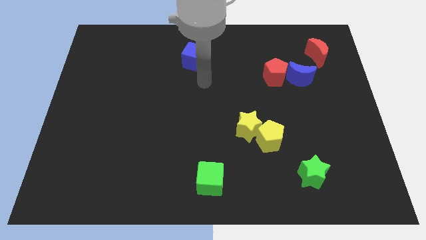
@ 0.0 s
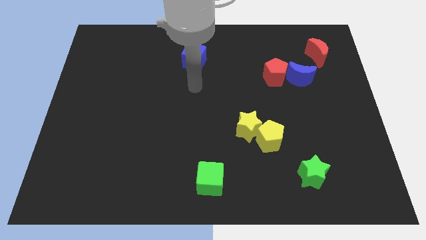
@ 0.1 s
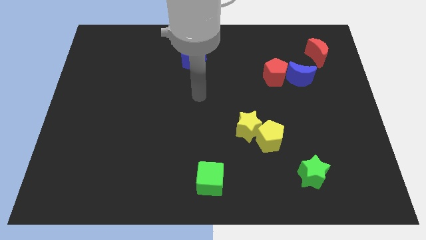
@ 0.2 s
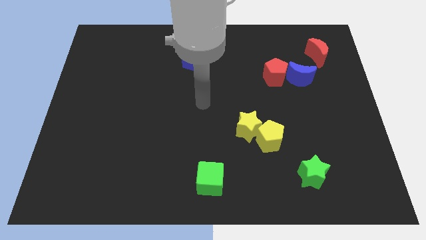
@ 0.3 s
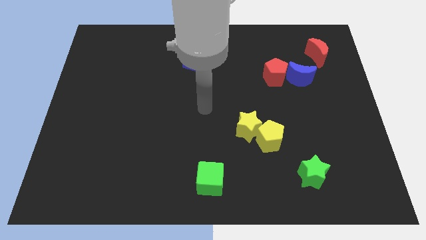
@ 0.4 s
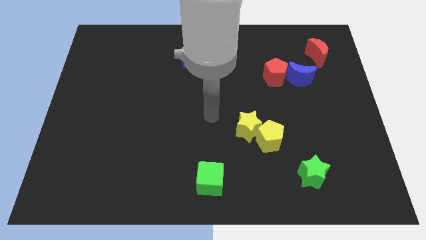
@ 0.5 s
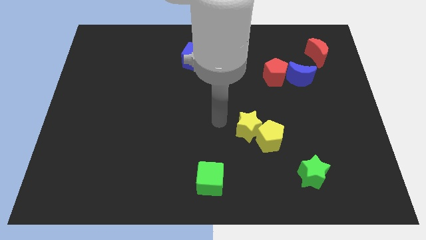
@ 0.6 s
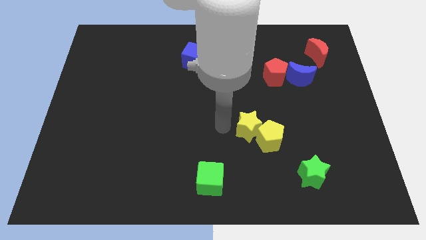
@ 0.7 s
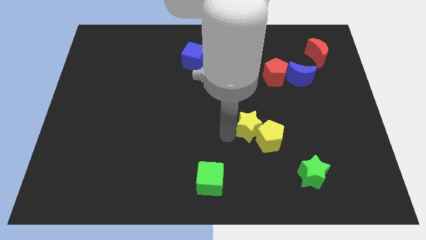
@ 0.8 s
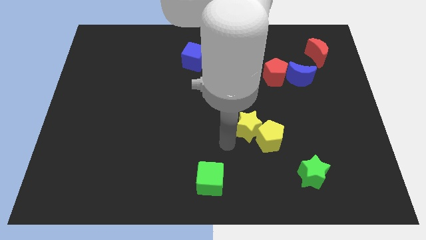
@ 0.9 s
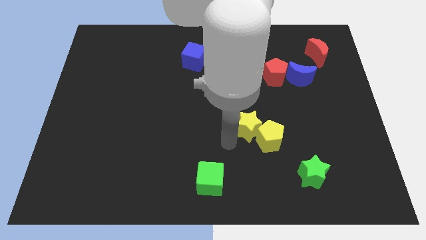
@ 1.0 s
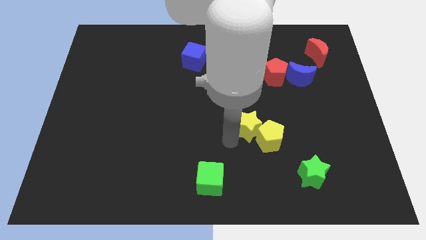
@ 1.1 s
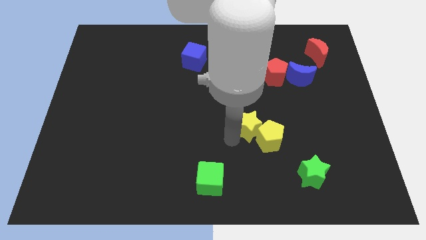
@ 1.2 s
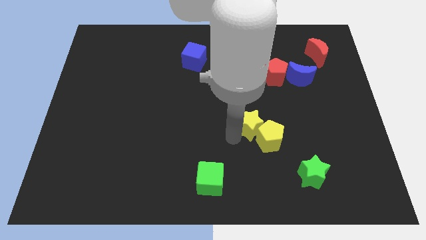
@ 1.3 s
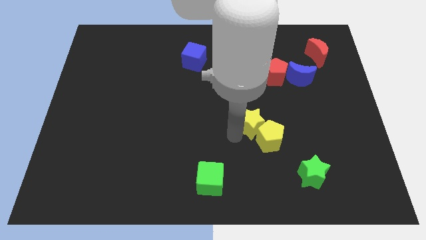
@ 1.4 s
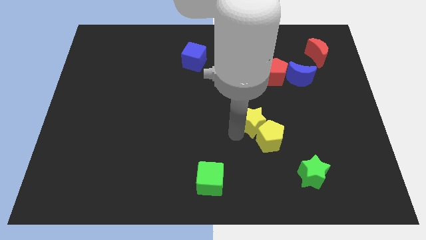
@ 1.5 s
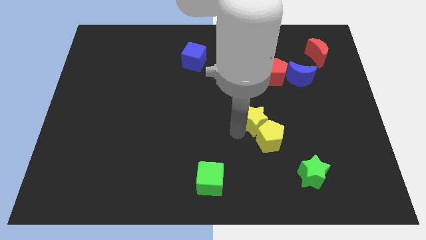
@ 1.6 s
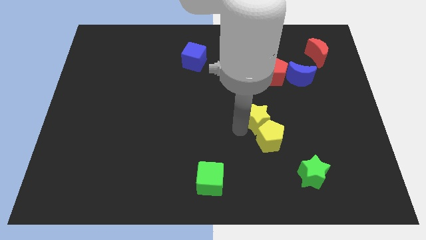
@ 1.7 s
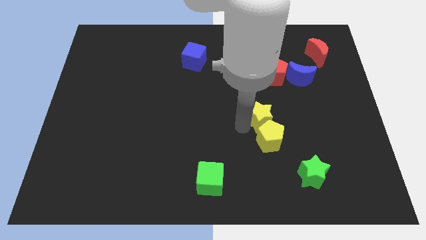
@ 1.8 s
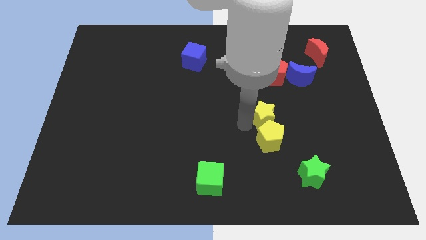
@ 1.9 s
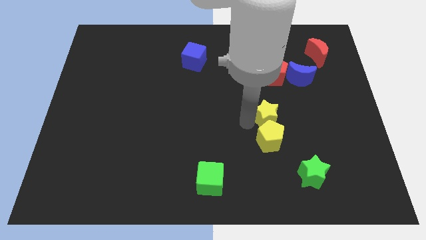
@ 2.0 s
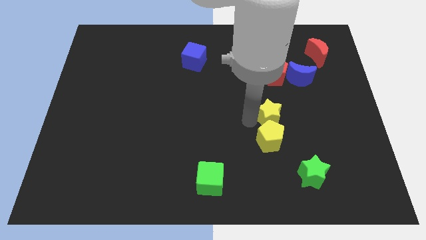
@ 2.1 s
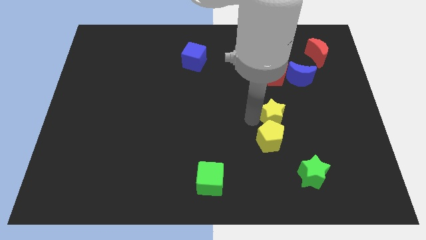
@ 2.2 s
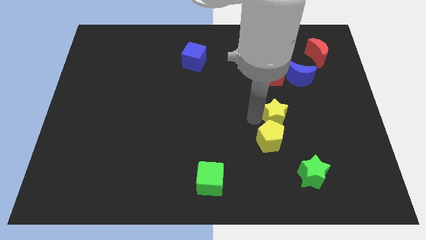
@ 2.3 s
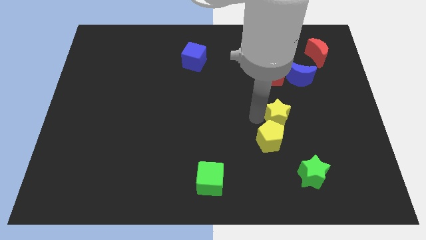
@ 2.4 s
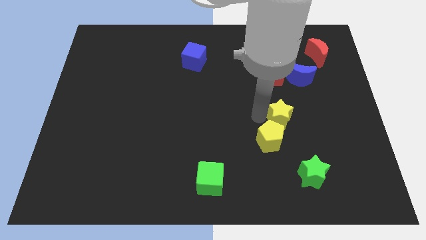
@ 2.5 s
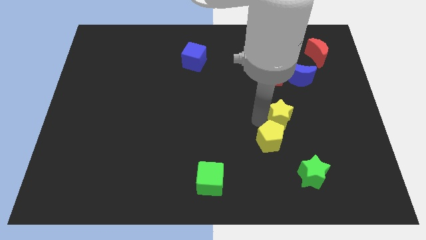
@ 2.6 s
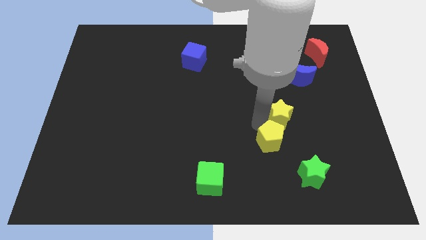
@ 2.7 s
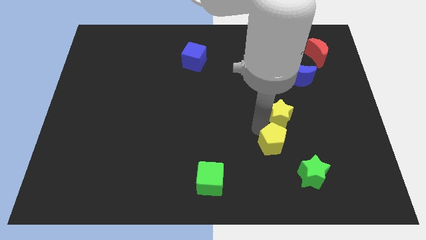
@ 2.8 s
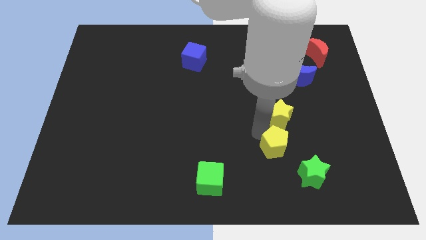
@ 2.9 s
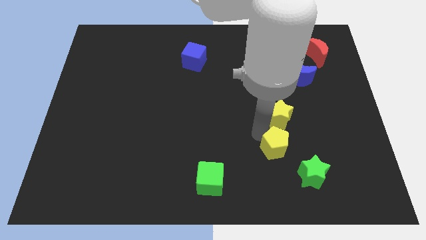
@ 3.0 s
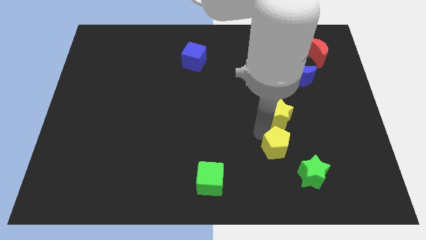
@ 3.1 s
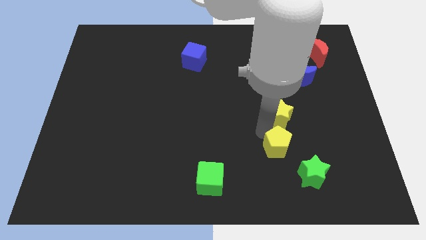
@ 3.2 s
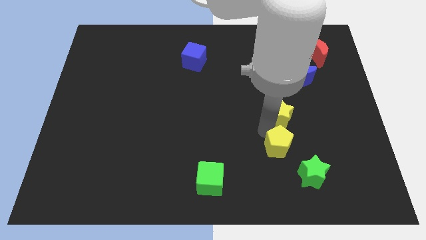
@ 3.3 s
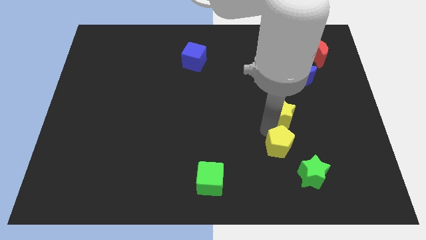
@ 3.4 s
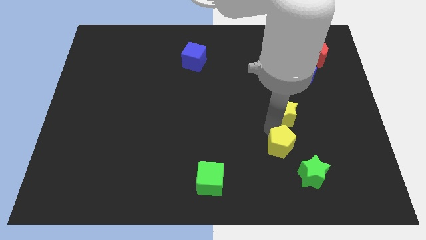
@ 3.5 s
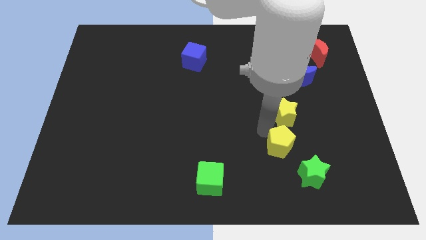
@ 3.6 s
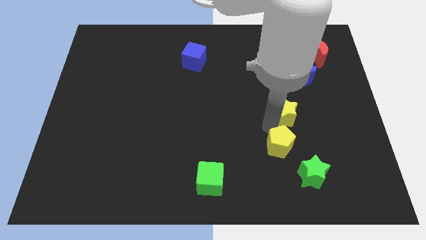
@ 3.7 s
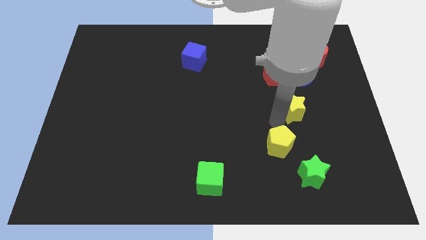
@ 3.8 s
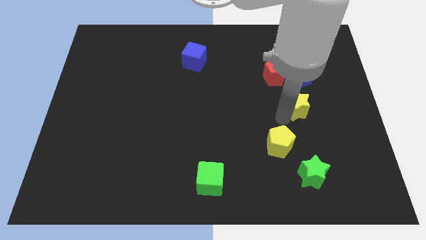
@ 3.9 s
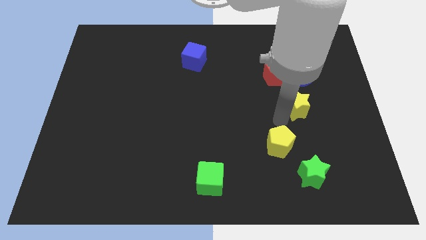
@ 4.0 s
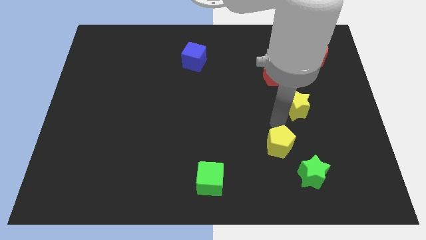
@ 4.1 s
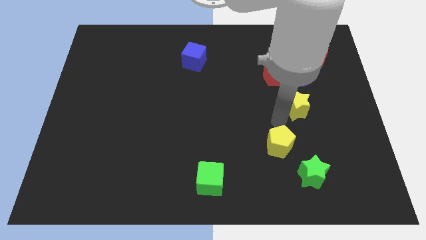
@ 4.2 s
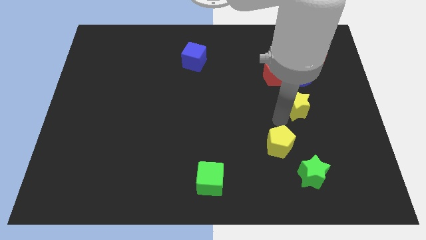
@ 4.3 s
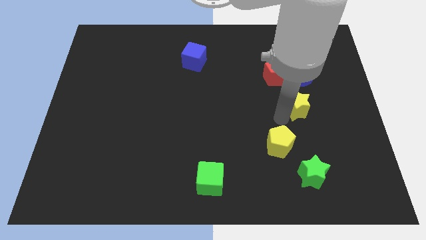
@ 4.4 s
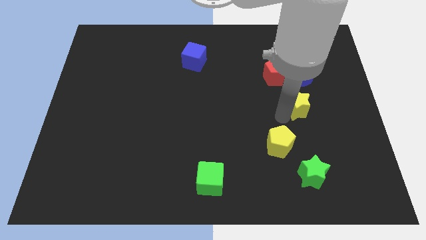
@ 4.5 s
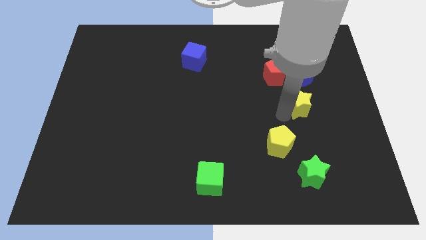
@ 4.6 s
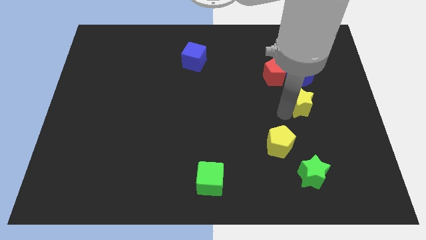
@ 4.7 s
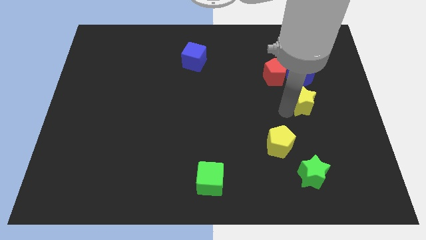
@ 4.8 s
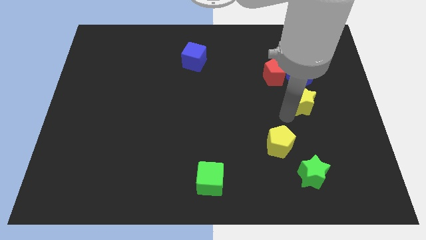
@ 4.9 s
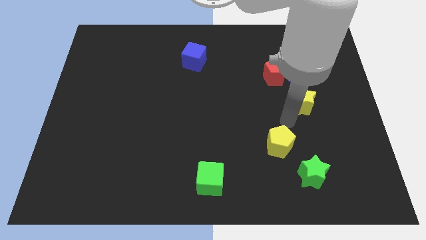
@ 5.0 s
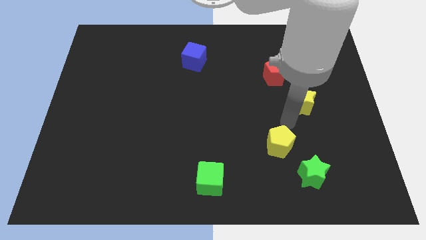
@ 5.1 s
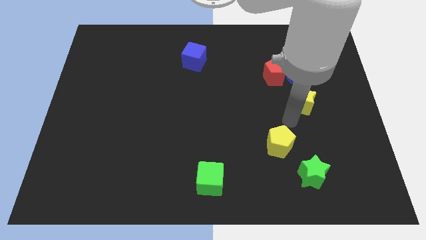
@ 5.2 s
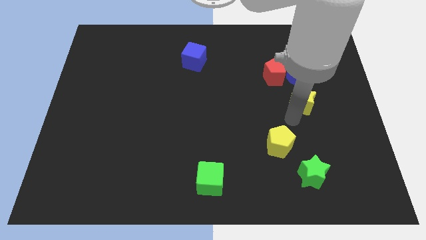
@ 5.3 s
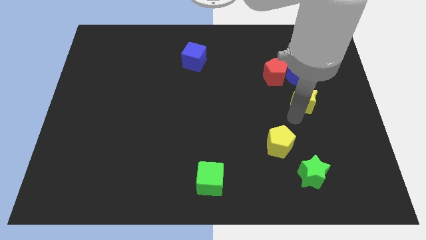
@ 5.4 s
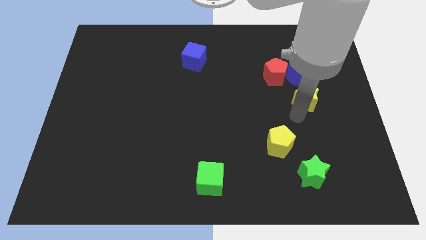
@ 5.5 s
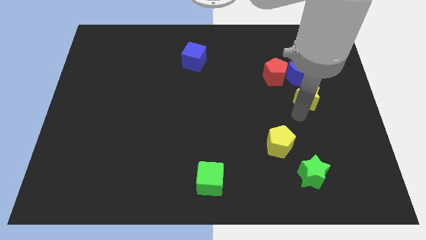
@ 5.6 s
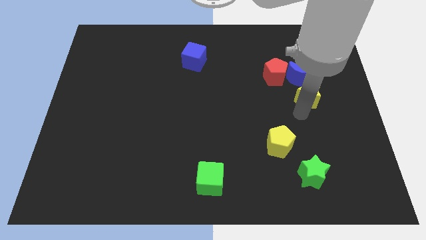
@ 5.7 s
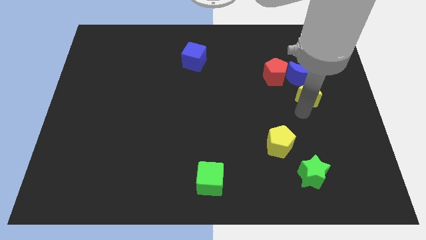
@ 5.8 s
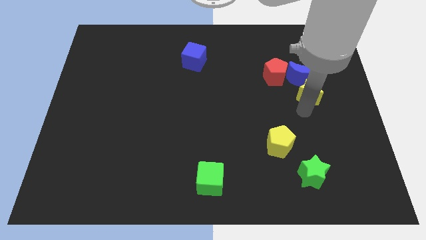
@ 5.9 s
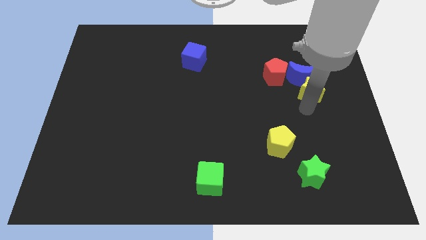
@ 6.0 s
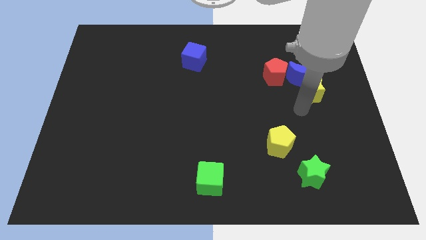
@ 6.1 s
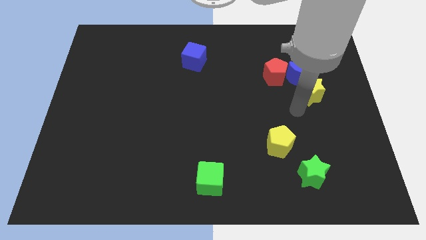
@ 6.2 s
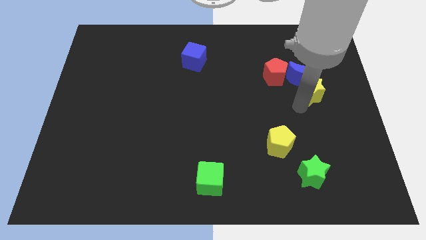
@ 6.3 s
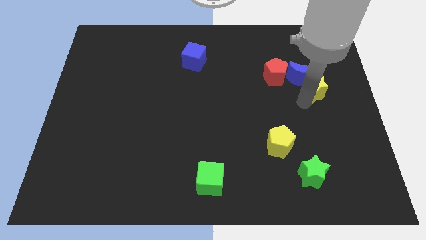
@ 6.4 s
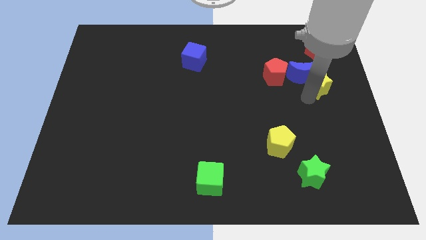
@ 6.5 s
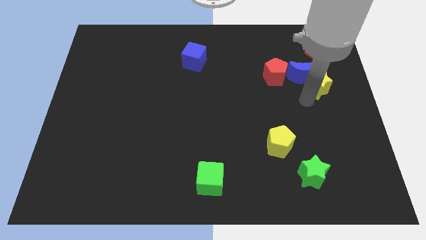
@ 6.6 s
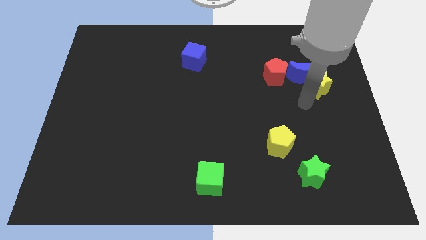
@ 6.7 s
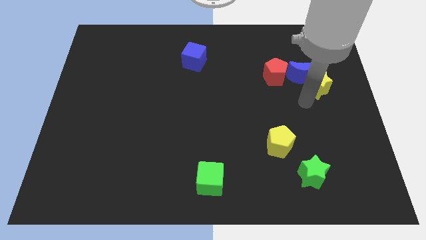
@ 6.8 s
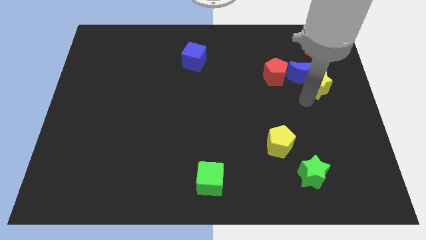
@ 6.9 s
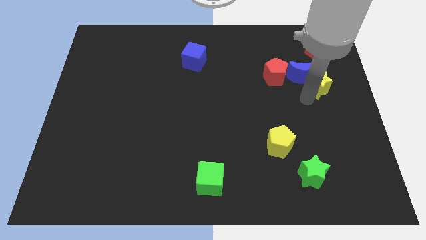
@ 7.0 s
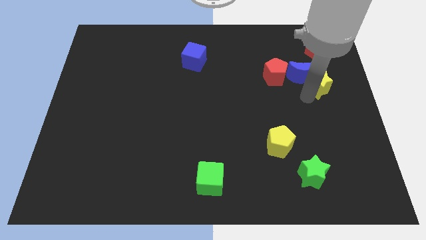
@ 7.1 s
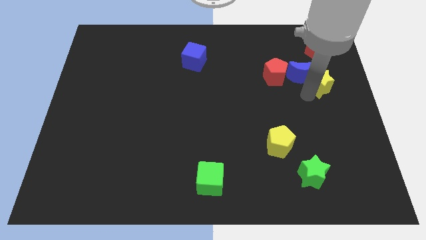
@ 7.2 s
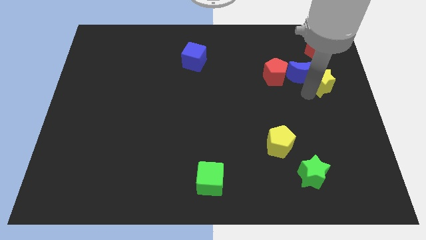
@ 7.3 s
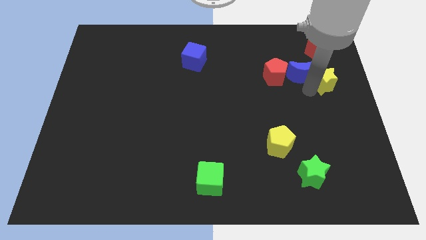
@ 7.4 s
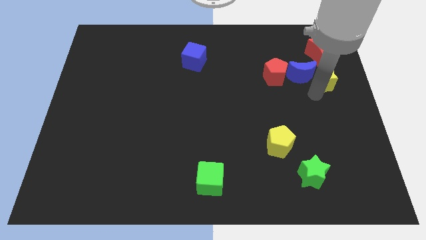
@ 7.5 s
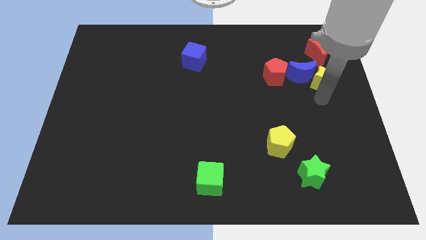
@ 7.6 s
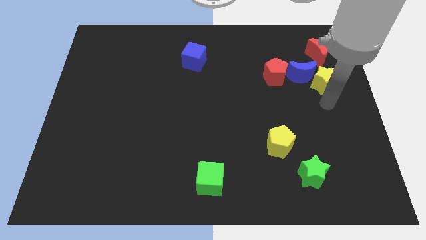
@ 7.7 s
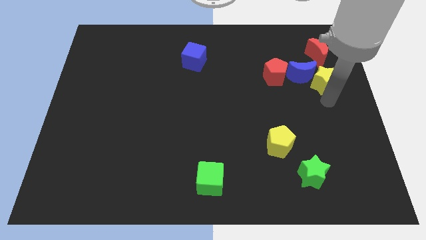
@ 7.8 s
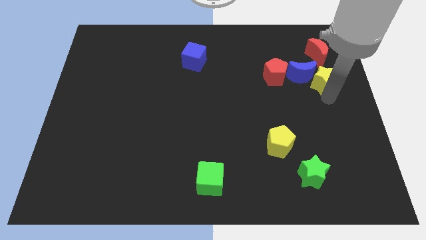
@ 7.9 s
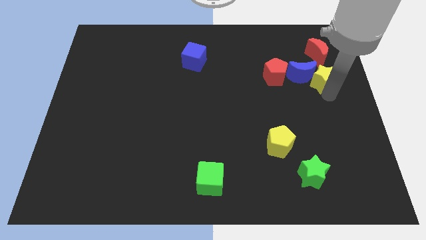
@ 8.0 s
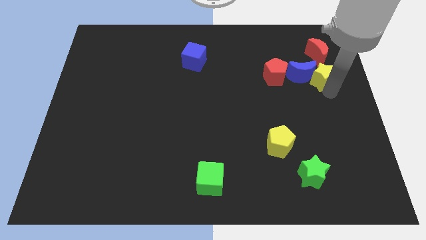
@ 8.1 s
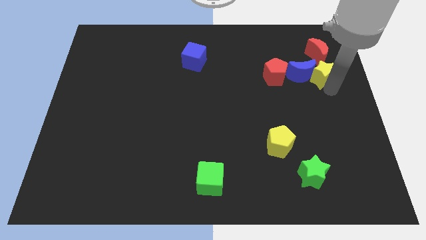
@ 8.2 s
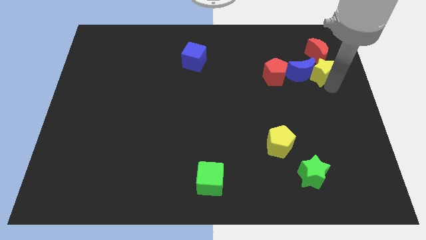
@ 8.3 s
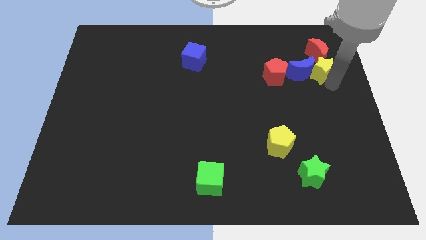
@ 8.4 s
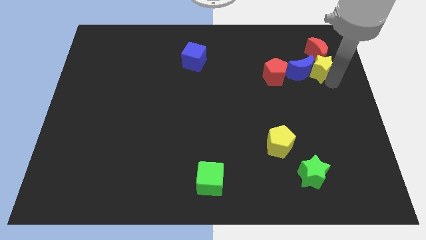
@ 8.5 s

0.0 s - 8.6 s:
put the yellow star towards the red moon
